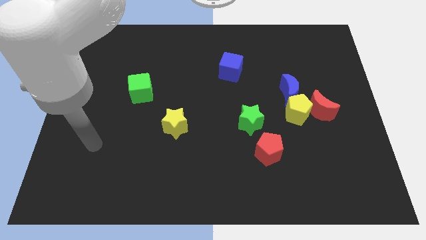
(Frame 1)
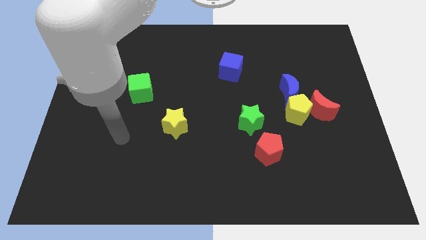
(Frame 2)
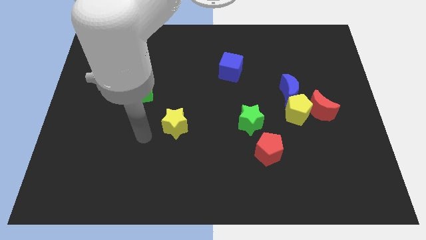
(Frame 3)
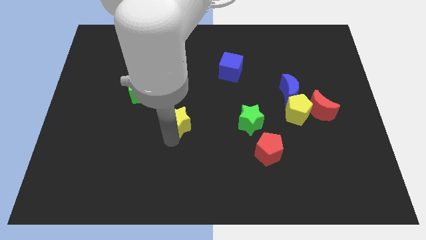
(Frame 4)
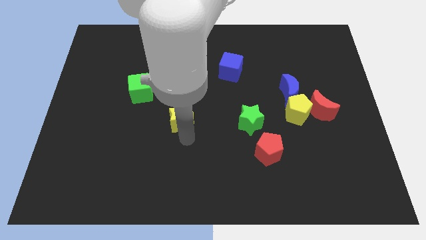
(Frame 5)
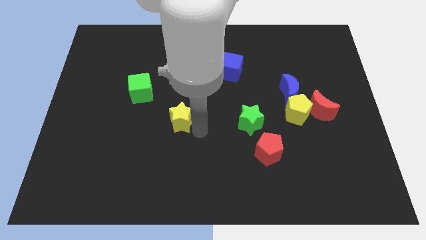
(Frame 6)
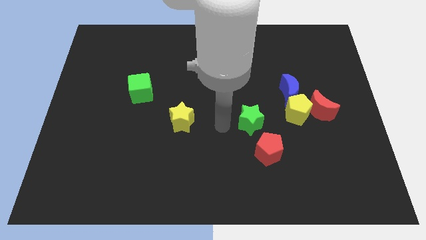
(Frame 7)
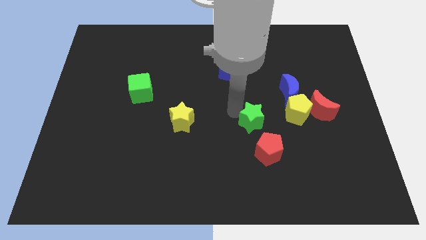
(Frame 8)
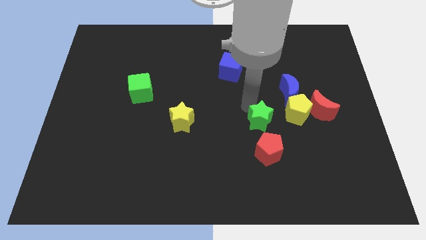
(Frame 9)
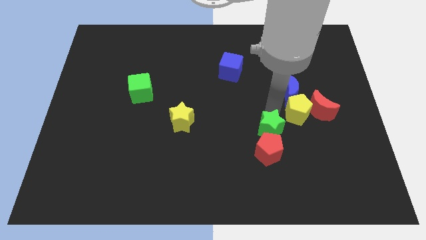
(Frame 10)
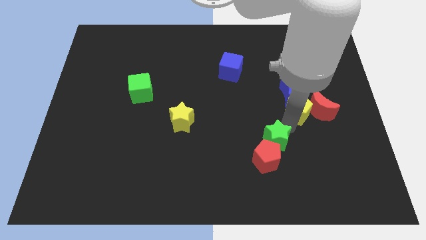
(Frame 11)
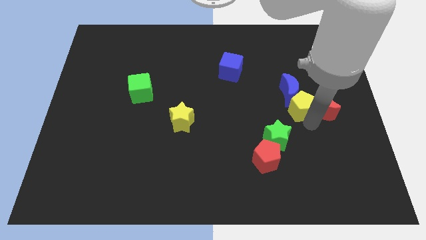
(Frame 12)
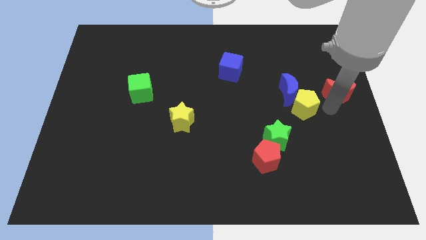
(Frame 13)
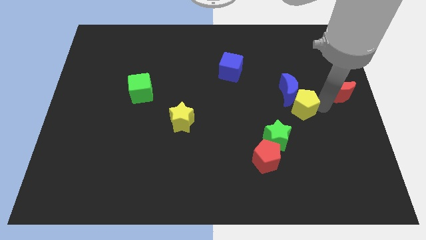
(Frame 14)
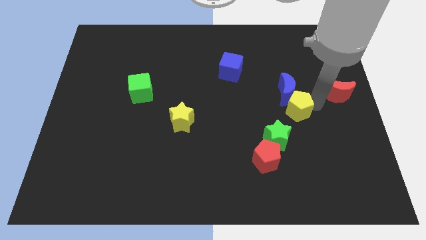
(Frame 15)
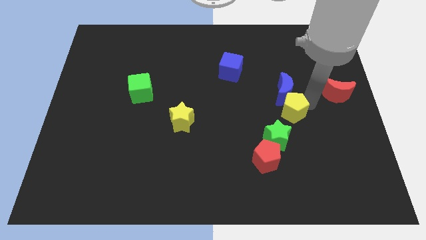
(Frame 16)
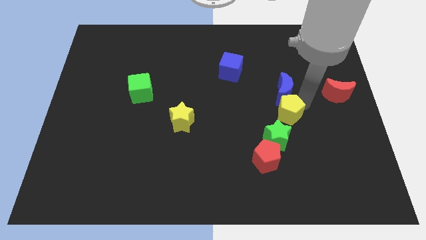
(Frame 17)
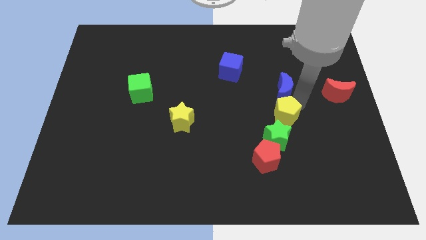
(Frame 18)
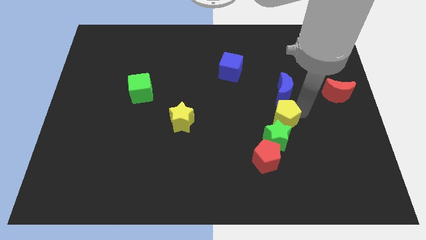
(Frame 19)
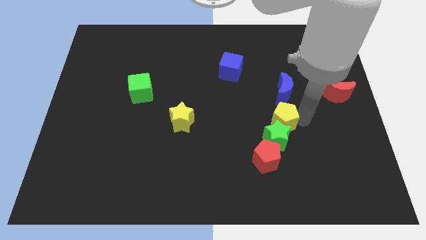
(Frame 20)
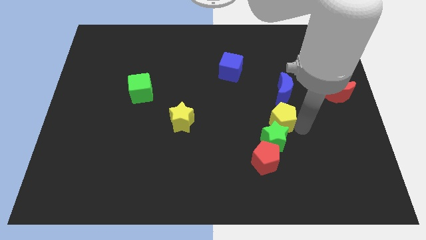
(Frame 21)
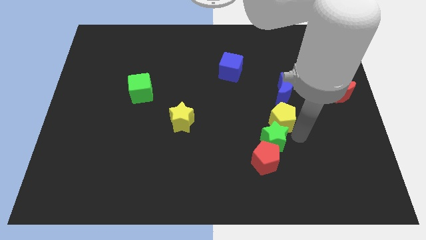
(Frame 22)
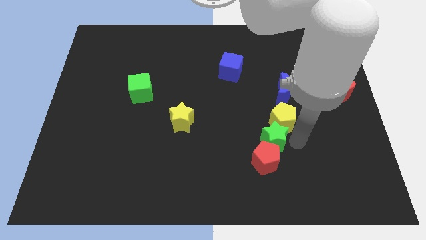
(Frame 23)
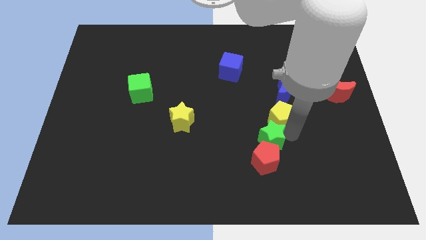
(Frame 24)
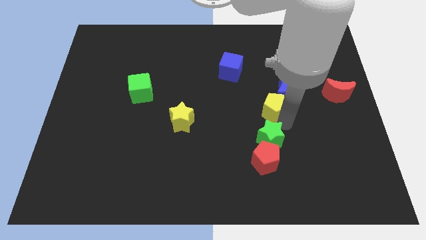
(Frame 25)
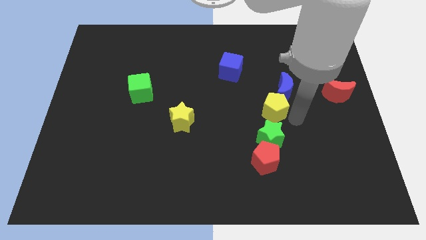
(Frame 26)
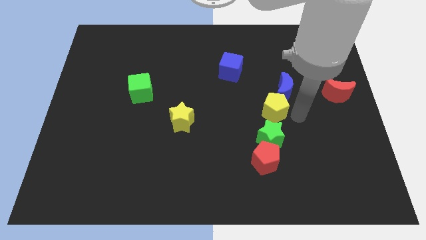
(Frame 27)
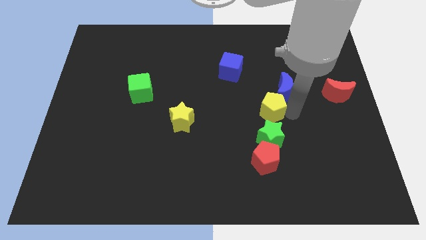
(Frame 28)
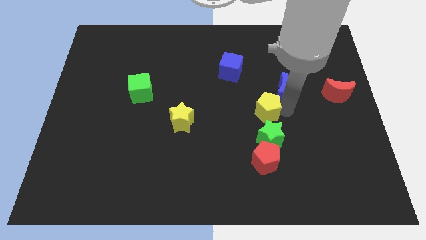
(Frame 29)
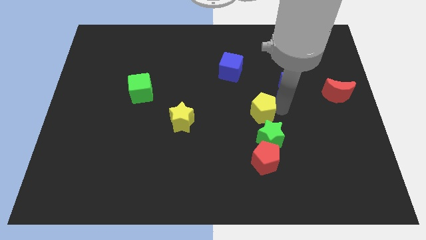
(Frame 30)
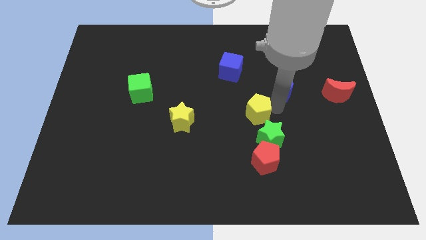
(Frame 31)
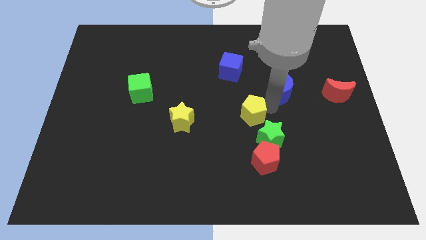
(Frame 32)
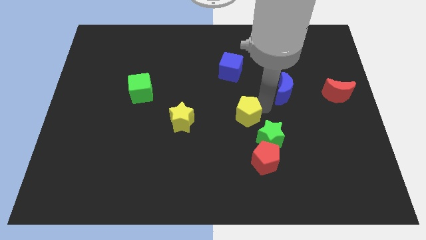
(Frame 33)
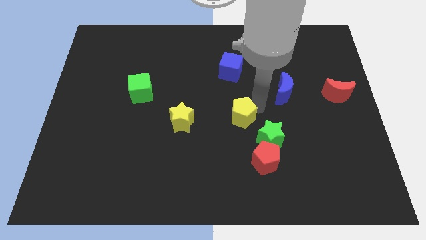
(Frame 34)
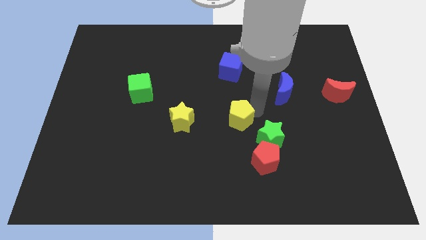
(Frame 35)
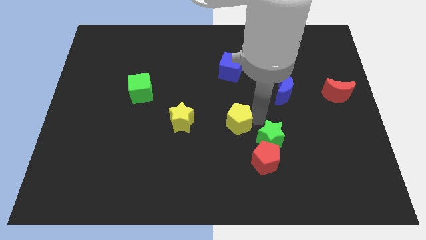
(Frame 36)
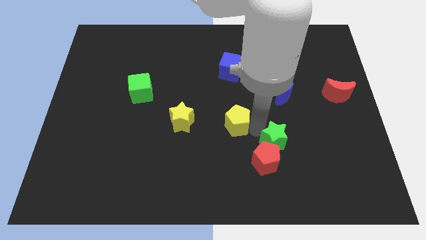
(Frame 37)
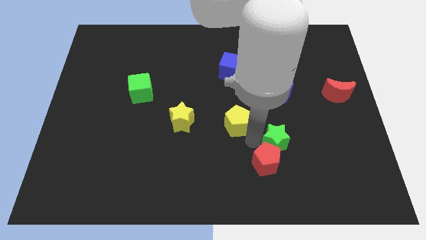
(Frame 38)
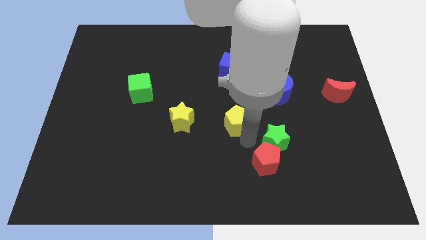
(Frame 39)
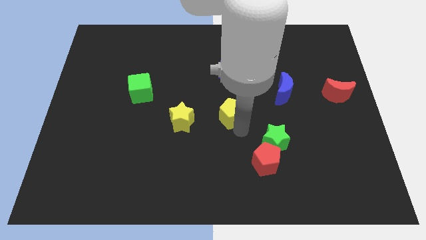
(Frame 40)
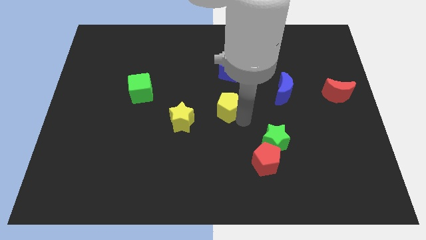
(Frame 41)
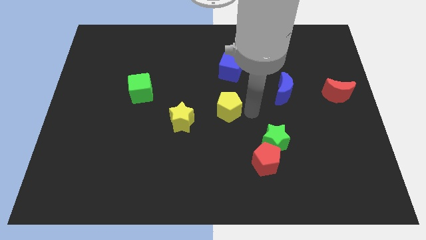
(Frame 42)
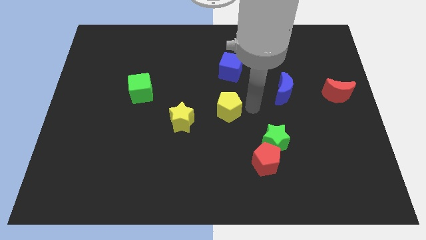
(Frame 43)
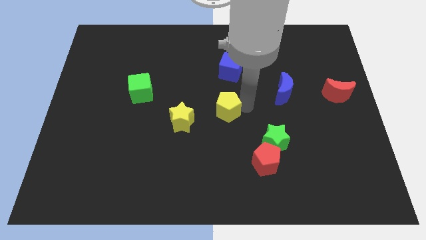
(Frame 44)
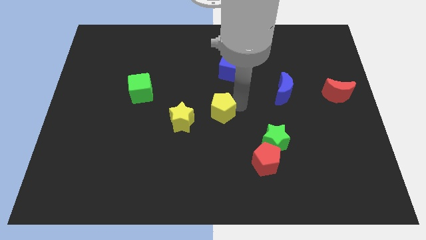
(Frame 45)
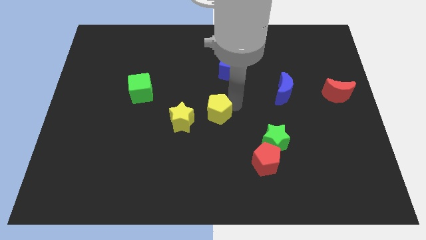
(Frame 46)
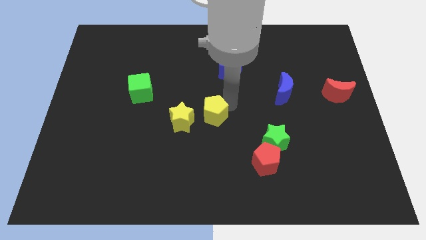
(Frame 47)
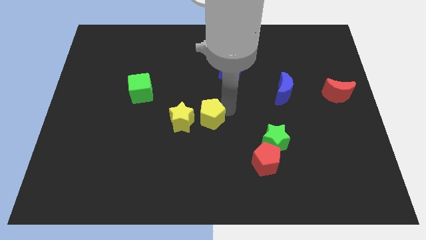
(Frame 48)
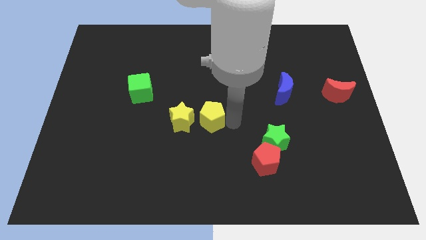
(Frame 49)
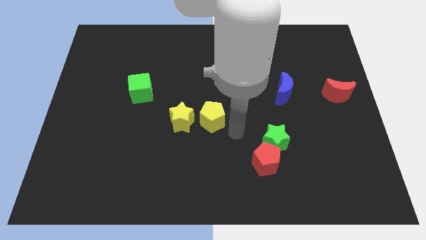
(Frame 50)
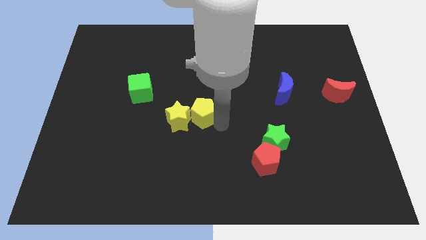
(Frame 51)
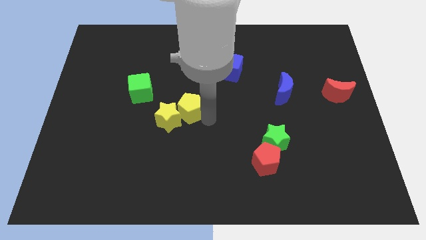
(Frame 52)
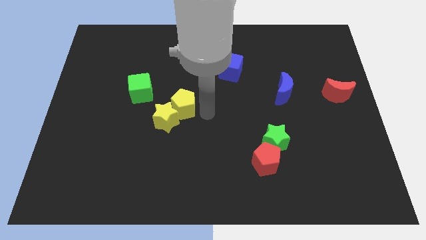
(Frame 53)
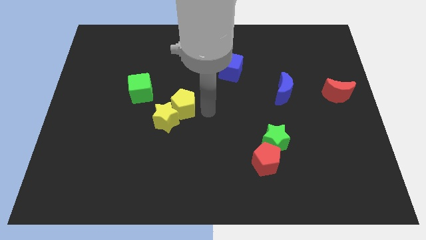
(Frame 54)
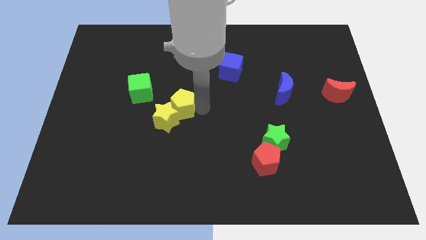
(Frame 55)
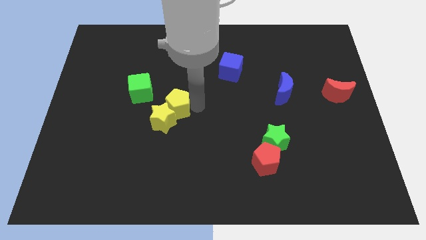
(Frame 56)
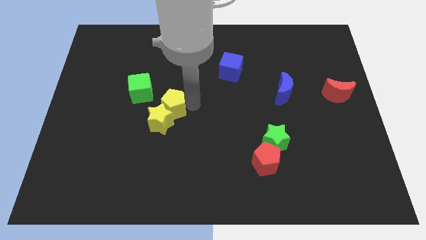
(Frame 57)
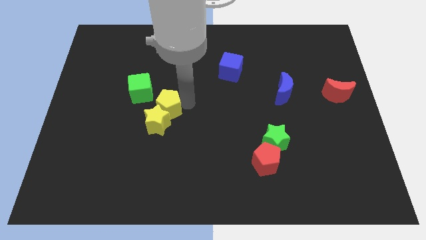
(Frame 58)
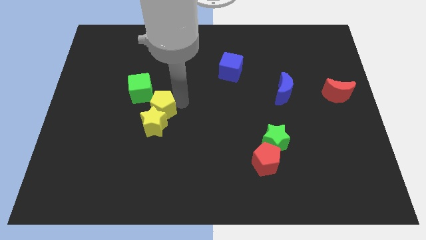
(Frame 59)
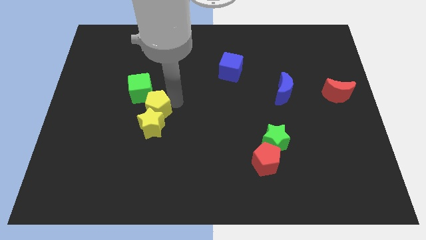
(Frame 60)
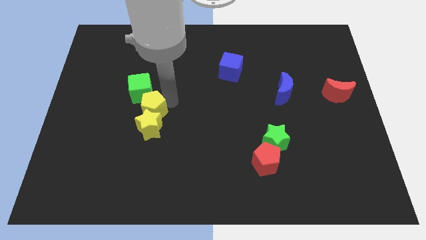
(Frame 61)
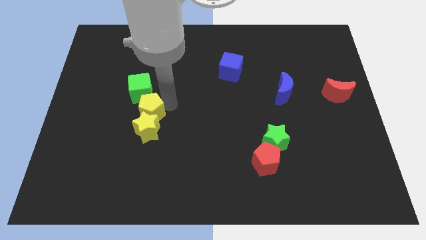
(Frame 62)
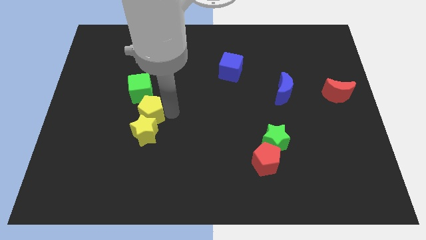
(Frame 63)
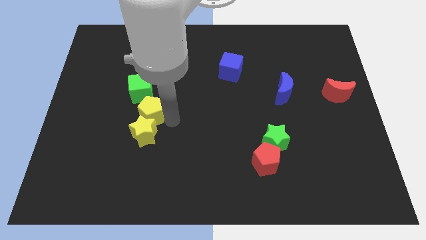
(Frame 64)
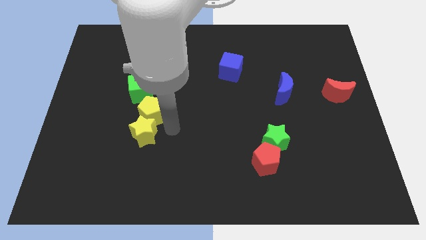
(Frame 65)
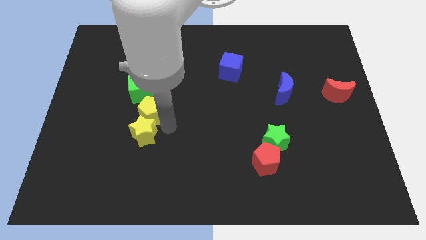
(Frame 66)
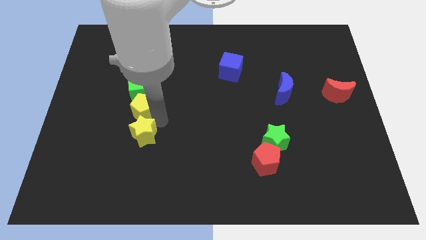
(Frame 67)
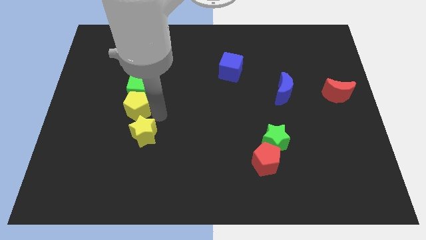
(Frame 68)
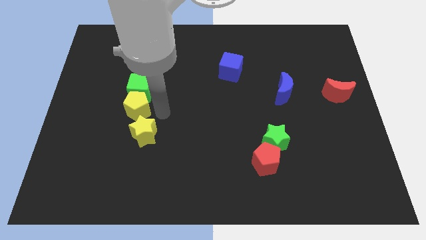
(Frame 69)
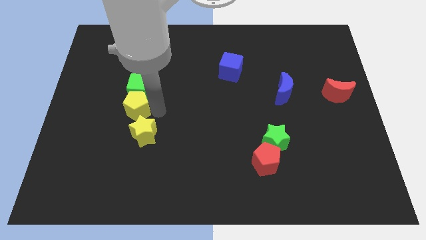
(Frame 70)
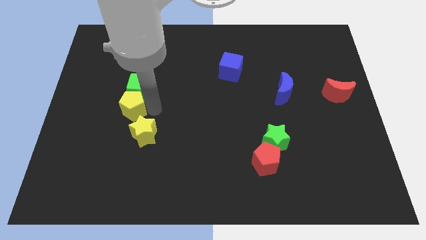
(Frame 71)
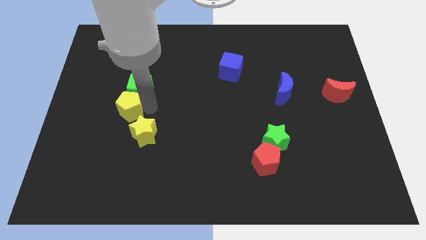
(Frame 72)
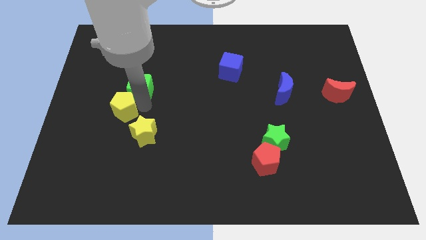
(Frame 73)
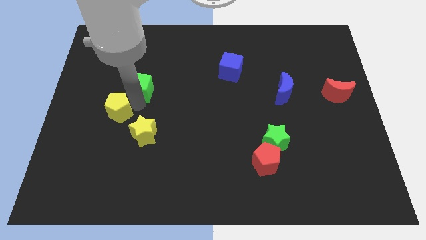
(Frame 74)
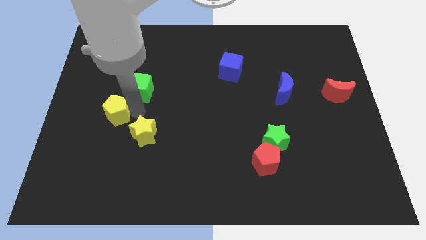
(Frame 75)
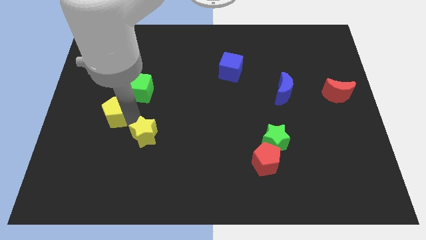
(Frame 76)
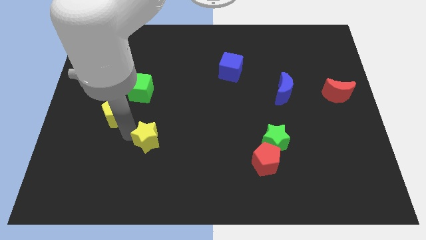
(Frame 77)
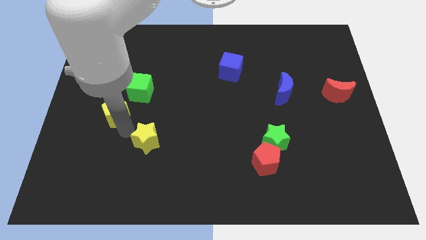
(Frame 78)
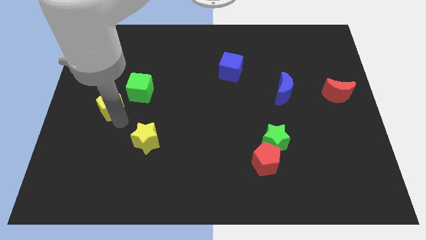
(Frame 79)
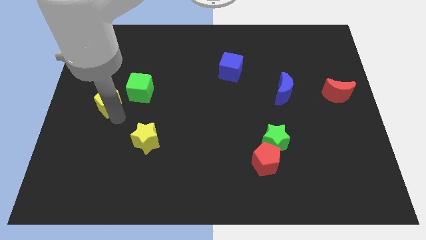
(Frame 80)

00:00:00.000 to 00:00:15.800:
slide the yellow pentagon to the left side of the green cube
